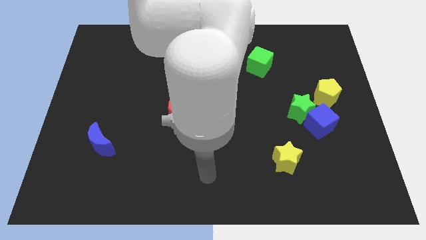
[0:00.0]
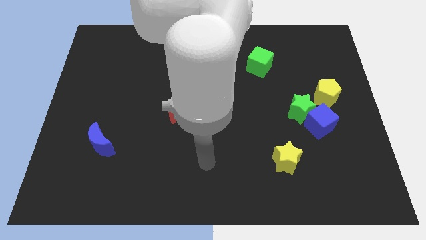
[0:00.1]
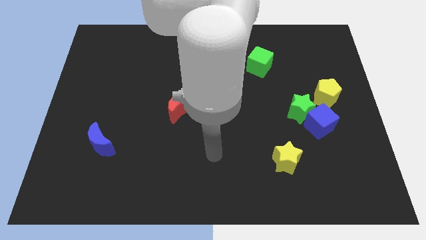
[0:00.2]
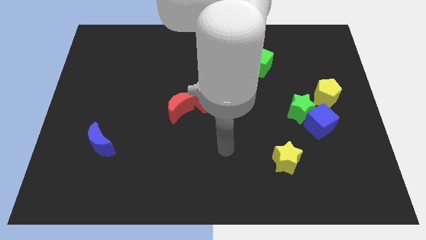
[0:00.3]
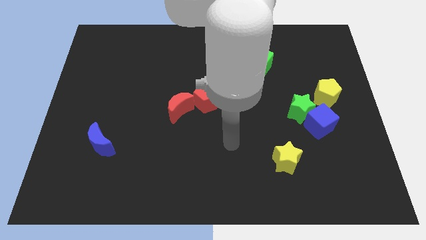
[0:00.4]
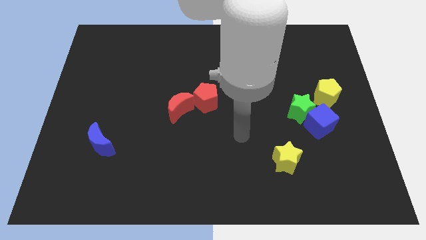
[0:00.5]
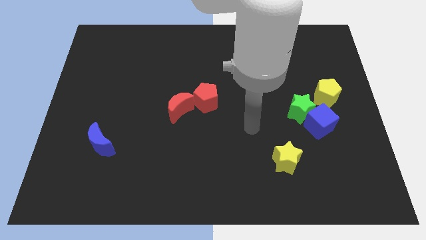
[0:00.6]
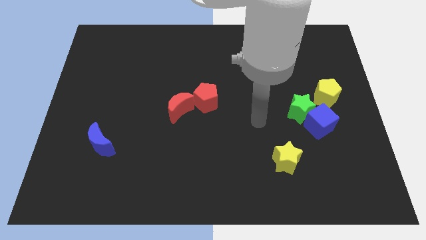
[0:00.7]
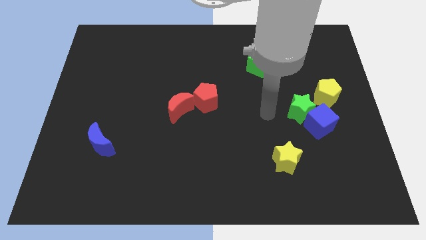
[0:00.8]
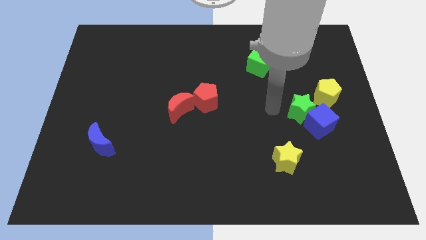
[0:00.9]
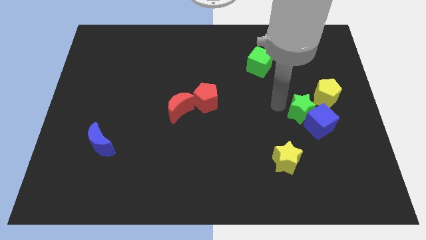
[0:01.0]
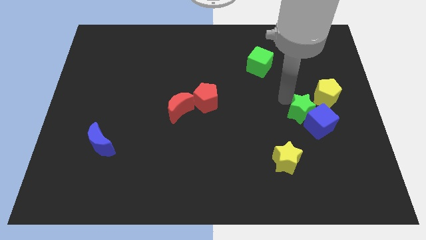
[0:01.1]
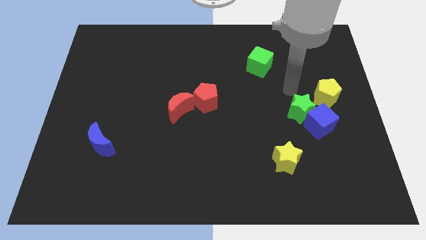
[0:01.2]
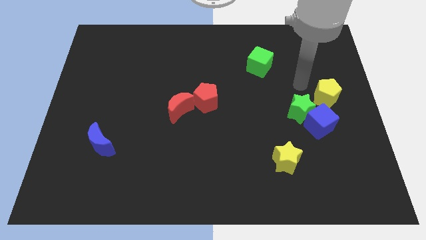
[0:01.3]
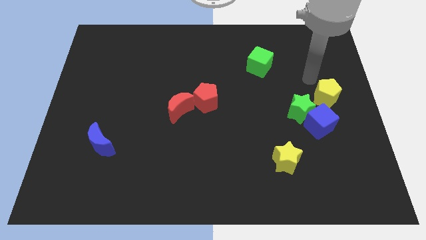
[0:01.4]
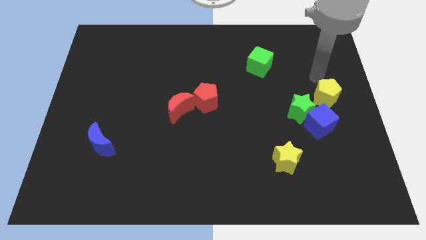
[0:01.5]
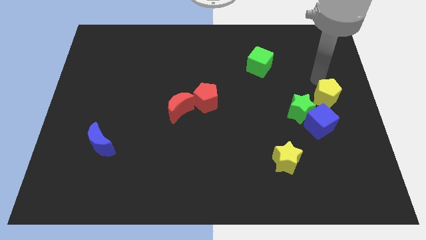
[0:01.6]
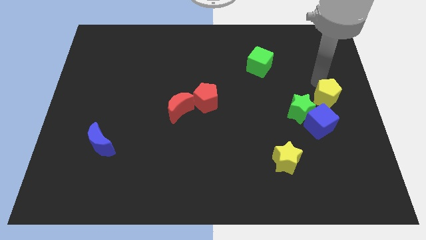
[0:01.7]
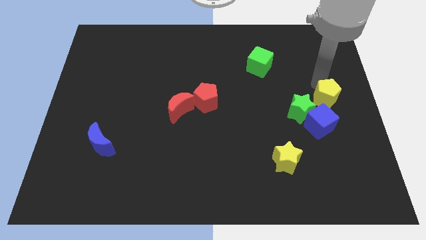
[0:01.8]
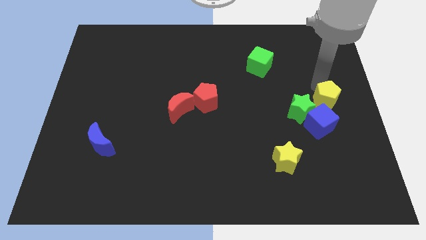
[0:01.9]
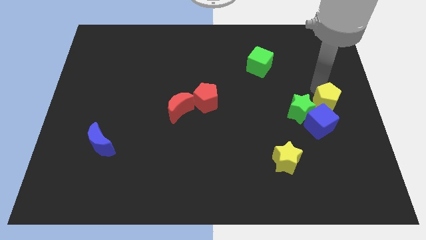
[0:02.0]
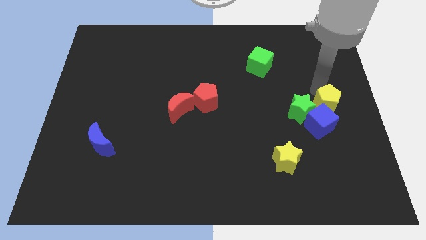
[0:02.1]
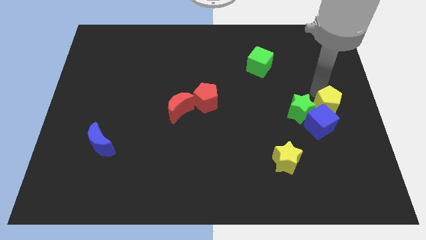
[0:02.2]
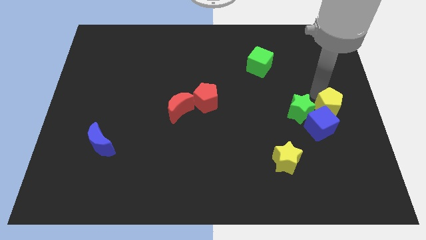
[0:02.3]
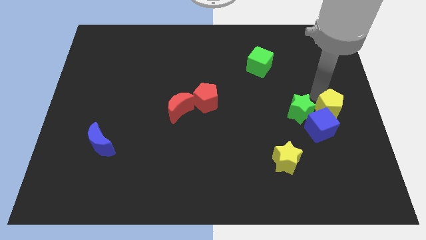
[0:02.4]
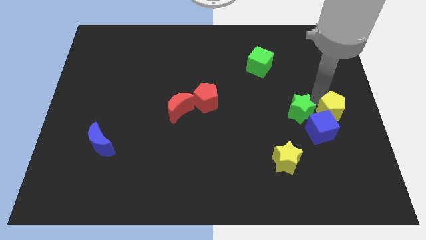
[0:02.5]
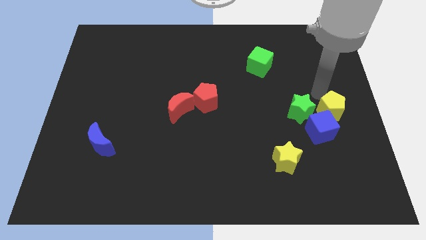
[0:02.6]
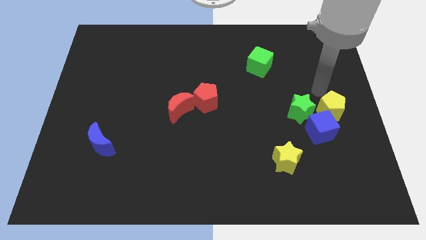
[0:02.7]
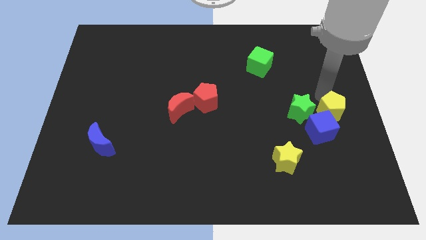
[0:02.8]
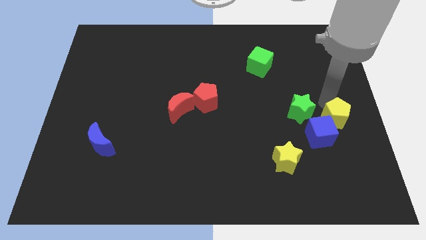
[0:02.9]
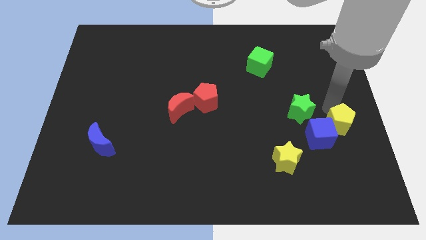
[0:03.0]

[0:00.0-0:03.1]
slide the yellow pentagon a bit downwards

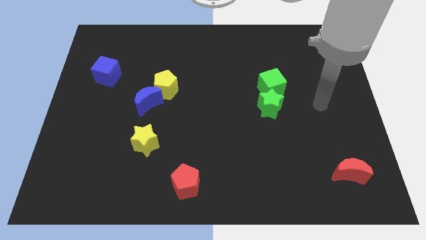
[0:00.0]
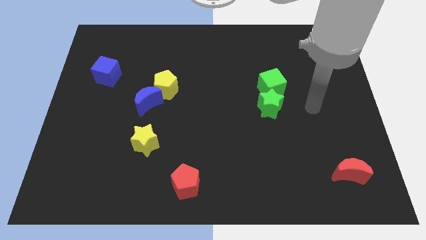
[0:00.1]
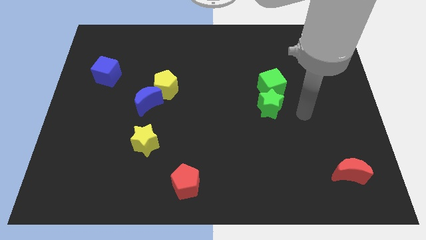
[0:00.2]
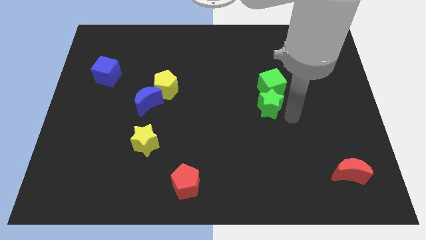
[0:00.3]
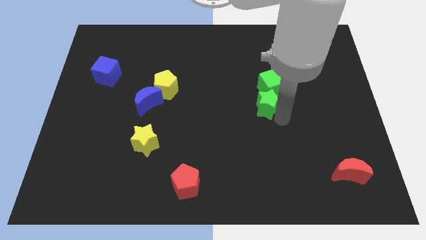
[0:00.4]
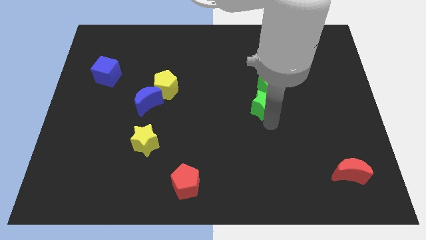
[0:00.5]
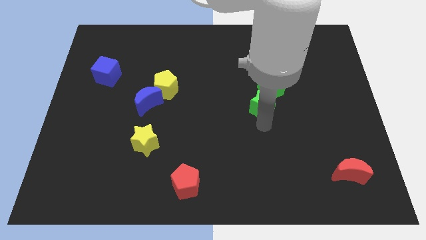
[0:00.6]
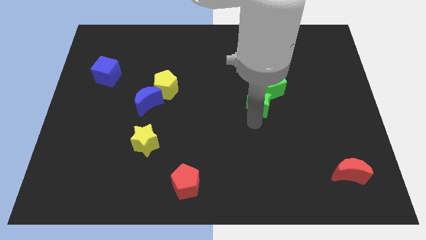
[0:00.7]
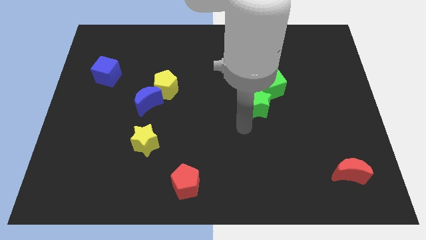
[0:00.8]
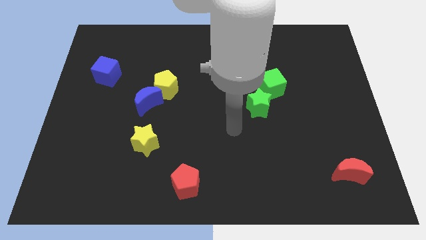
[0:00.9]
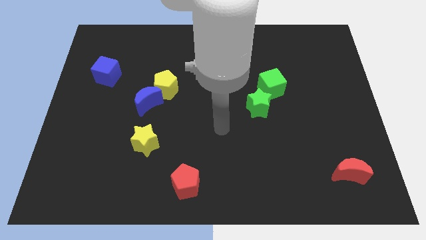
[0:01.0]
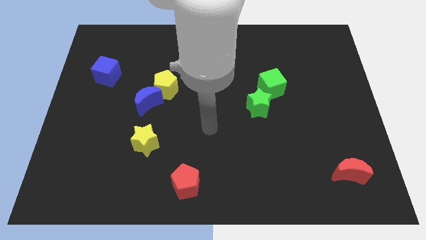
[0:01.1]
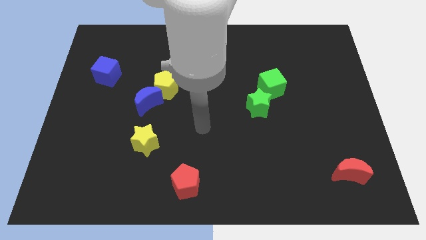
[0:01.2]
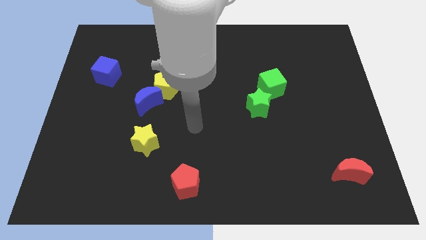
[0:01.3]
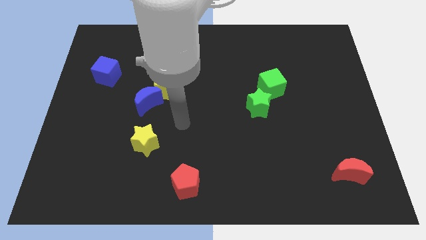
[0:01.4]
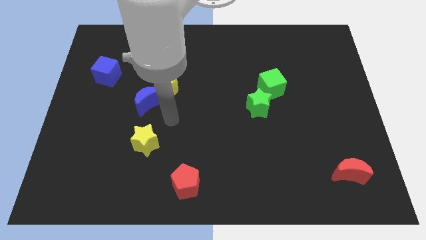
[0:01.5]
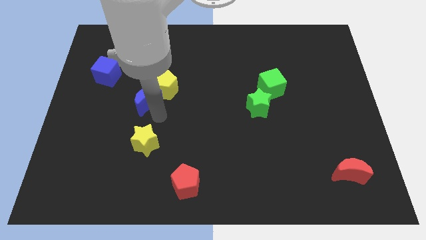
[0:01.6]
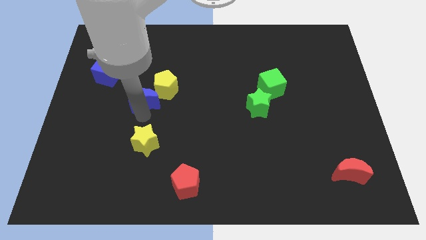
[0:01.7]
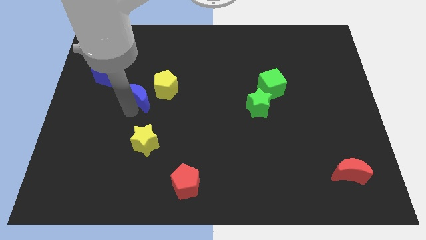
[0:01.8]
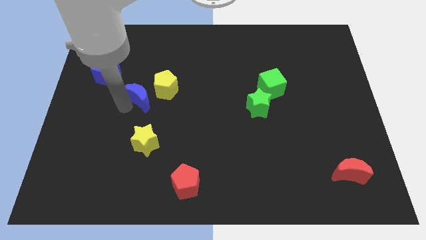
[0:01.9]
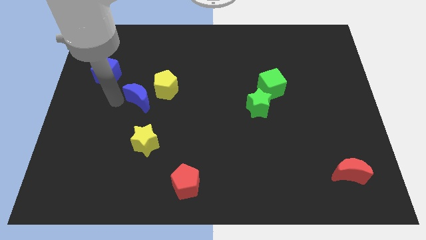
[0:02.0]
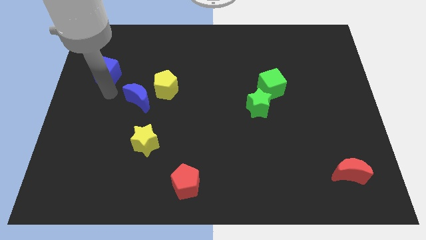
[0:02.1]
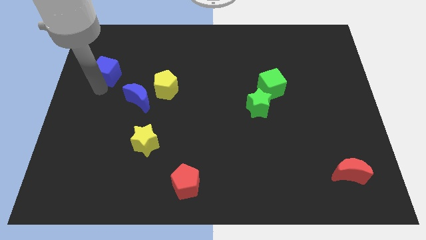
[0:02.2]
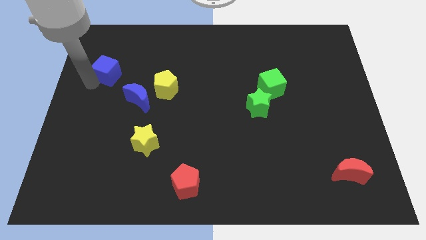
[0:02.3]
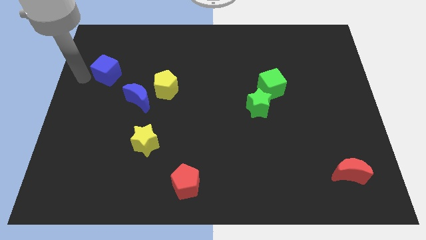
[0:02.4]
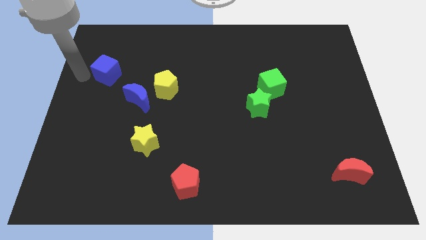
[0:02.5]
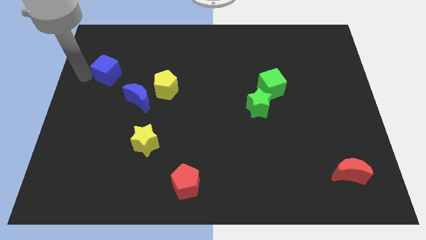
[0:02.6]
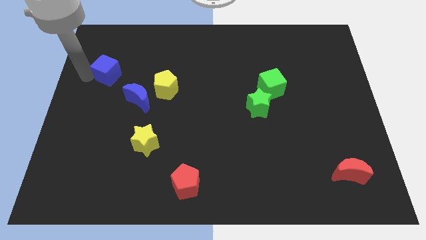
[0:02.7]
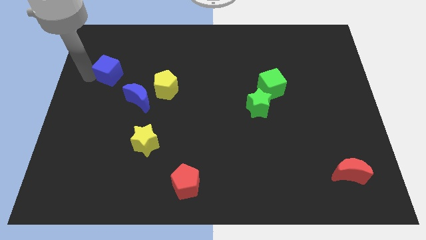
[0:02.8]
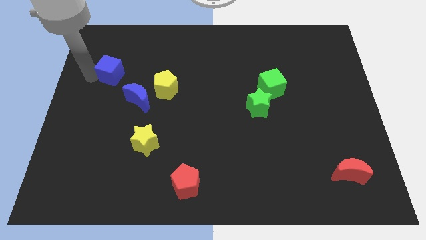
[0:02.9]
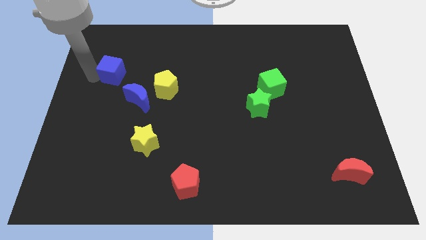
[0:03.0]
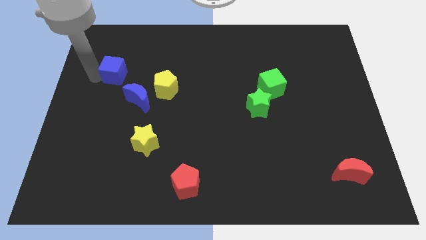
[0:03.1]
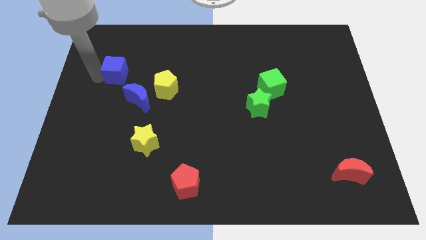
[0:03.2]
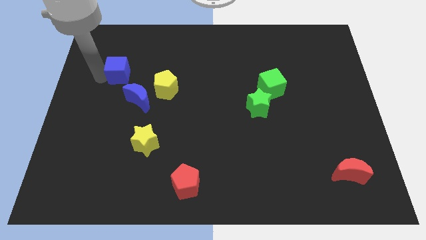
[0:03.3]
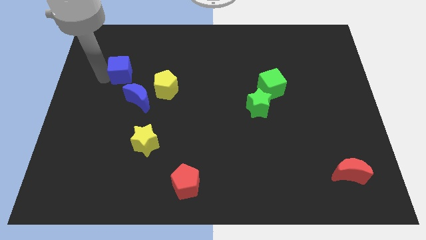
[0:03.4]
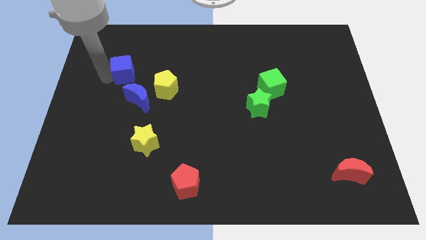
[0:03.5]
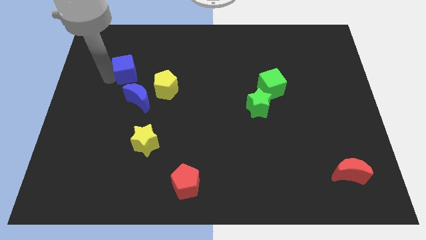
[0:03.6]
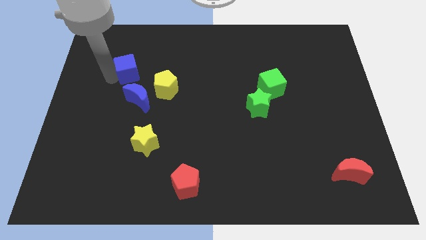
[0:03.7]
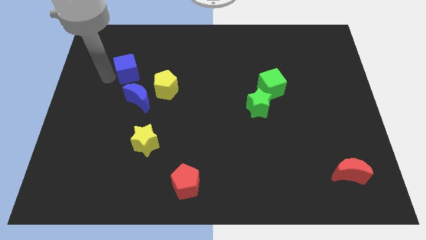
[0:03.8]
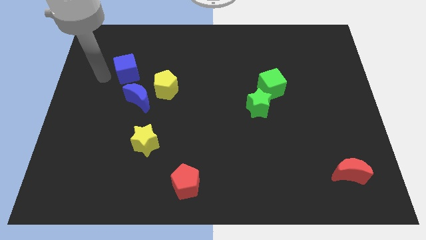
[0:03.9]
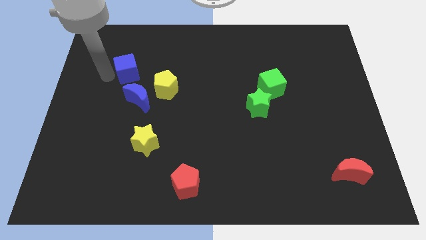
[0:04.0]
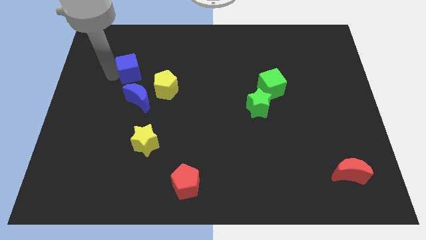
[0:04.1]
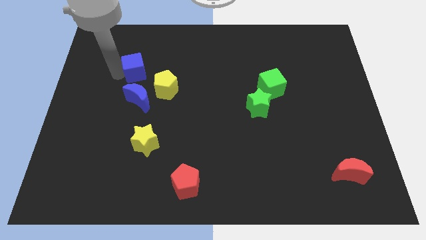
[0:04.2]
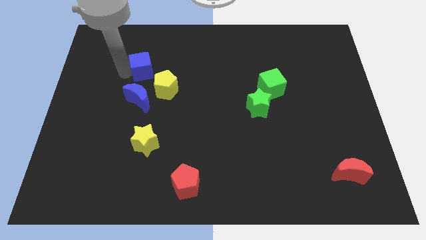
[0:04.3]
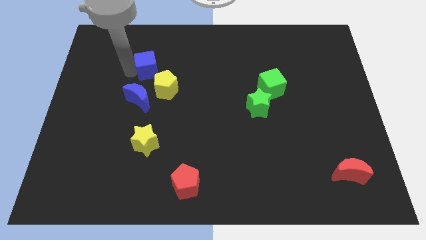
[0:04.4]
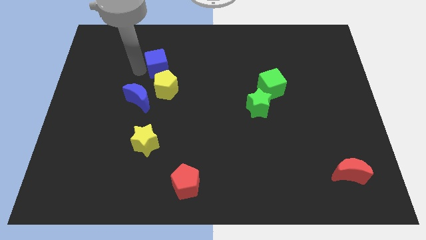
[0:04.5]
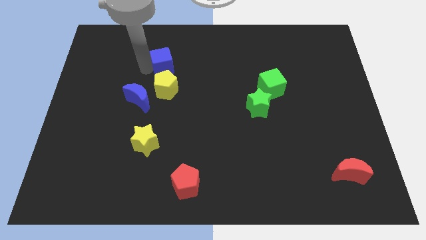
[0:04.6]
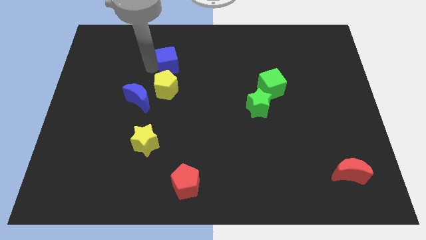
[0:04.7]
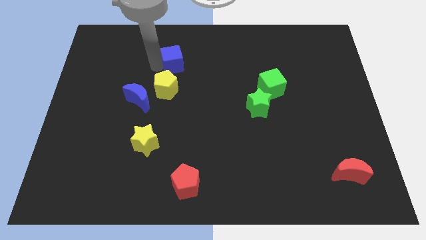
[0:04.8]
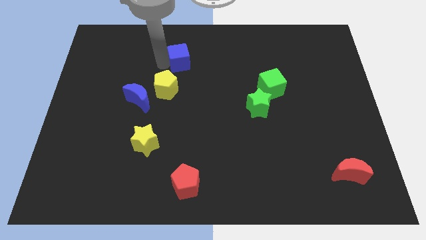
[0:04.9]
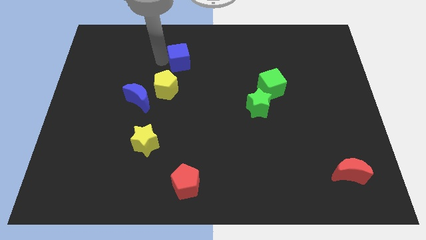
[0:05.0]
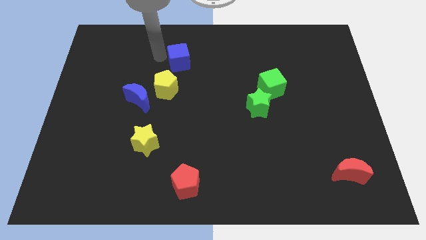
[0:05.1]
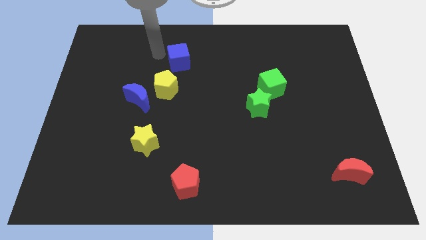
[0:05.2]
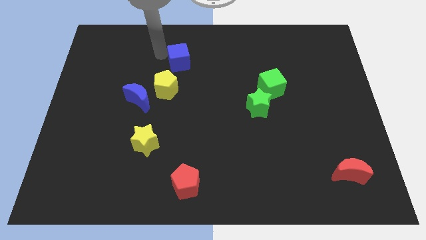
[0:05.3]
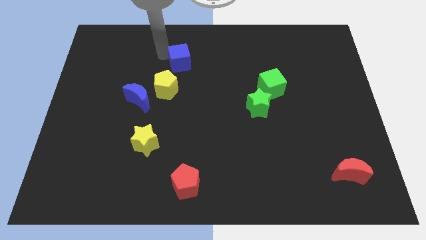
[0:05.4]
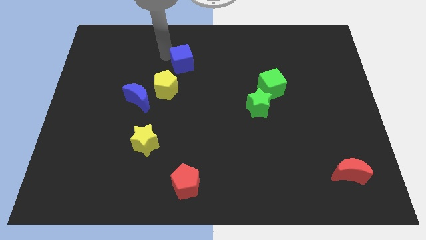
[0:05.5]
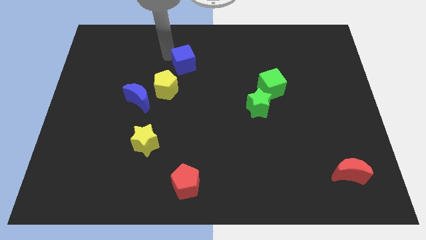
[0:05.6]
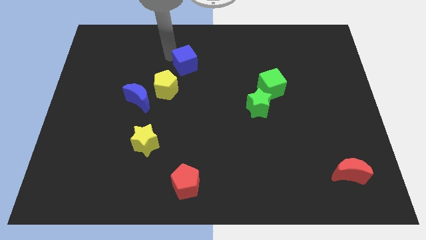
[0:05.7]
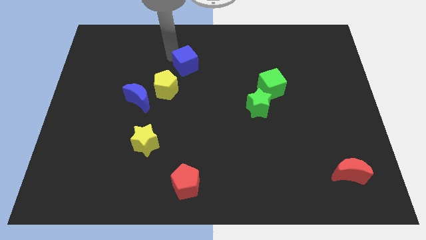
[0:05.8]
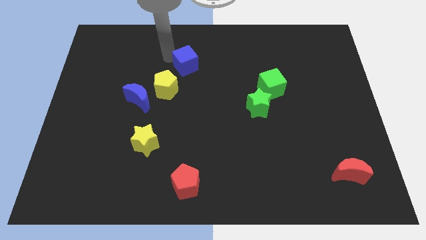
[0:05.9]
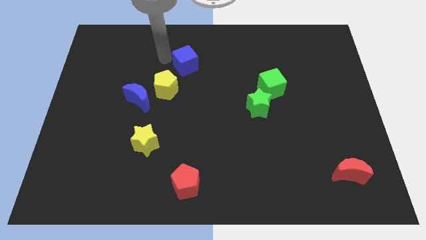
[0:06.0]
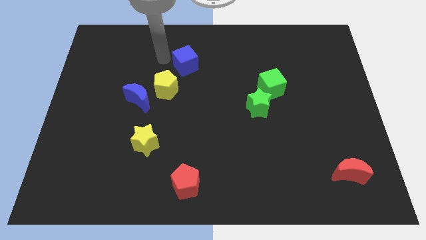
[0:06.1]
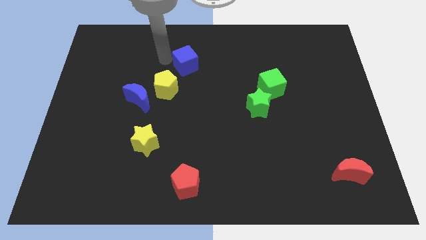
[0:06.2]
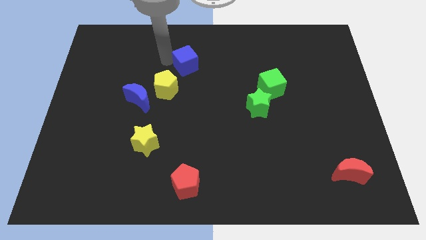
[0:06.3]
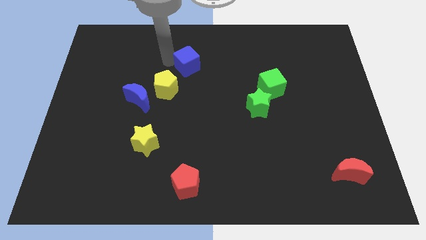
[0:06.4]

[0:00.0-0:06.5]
slide the blue cube to the right
